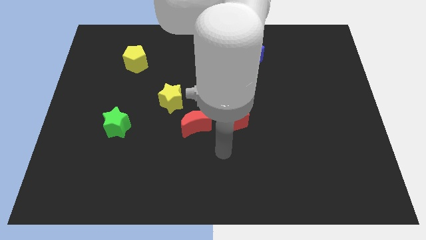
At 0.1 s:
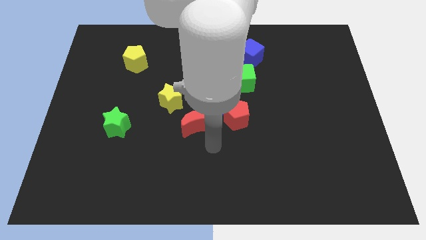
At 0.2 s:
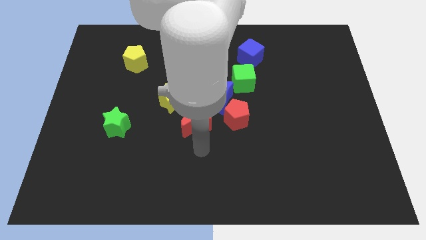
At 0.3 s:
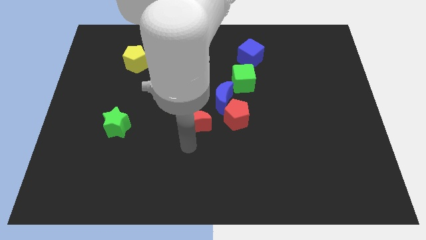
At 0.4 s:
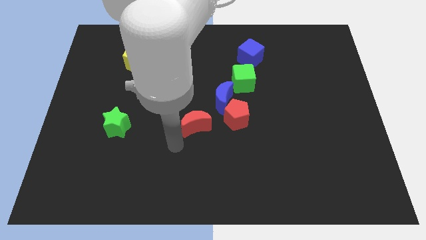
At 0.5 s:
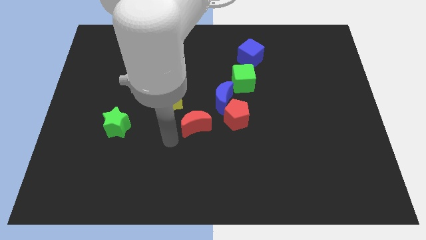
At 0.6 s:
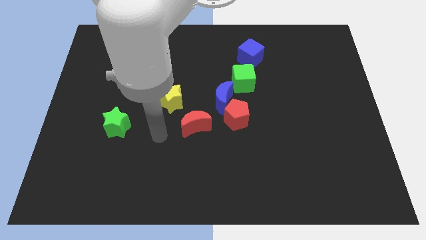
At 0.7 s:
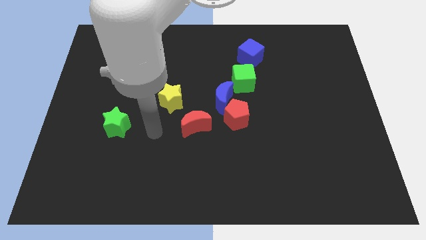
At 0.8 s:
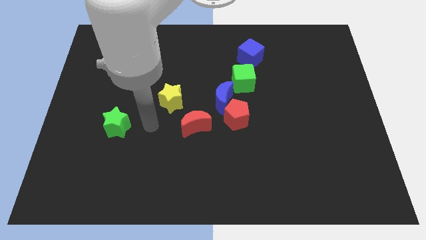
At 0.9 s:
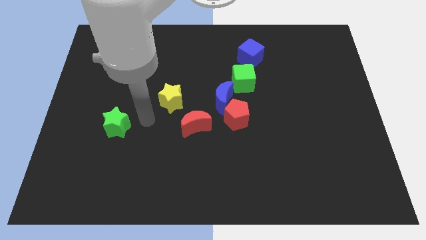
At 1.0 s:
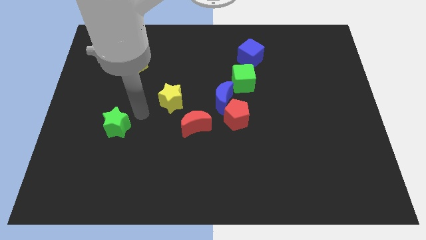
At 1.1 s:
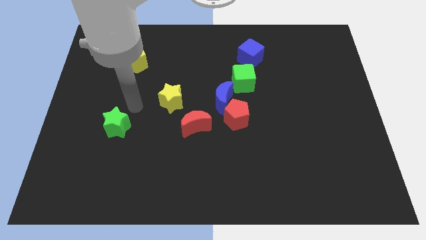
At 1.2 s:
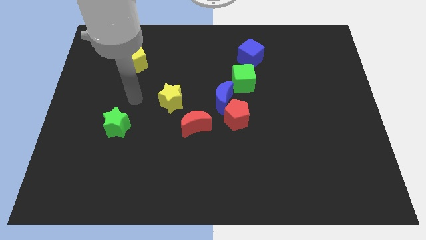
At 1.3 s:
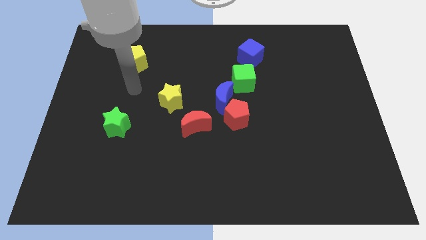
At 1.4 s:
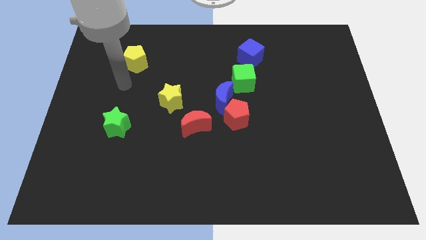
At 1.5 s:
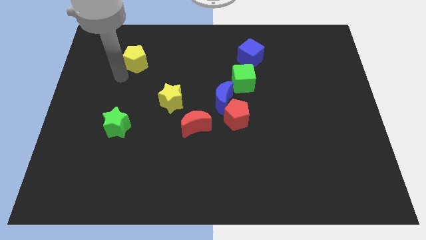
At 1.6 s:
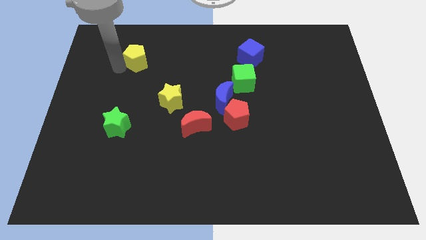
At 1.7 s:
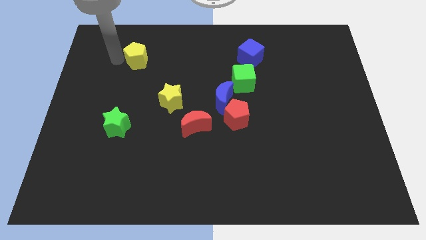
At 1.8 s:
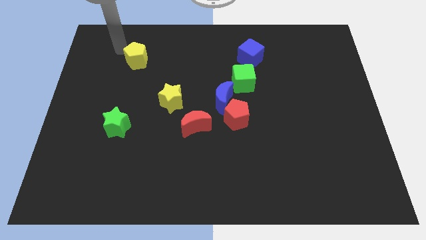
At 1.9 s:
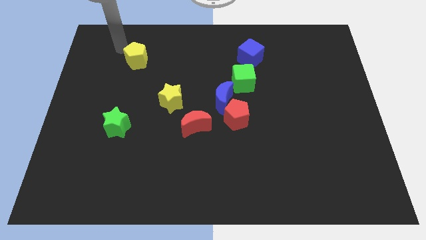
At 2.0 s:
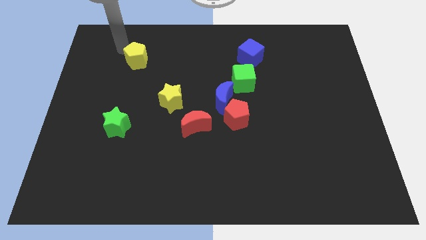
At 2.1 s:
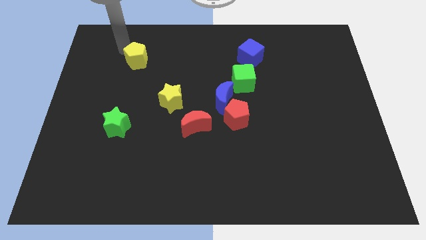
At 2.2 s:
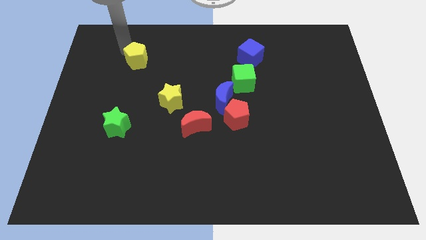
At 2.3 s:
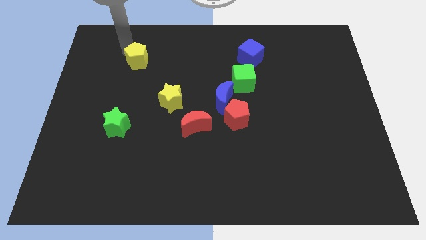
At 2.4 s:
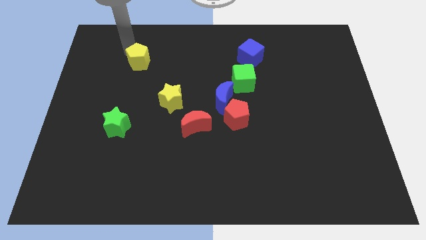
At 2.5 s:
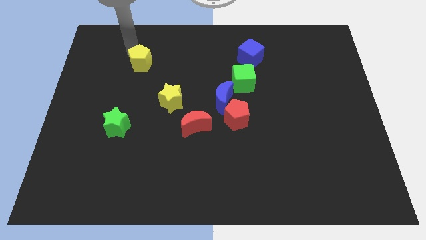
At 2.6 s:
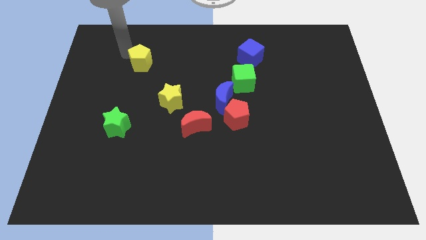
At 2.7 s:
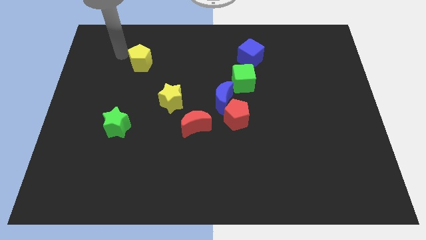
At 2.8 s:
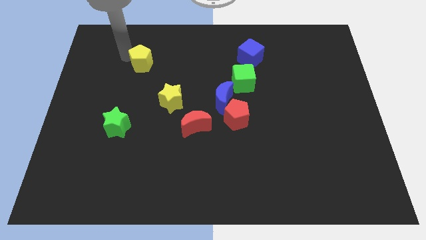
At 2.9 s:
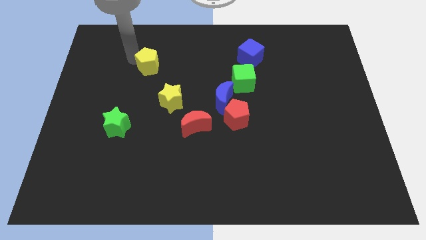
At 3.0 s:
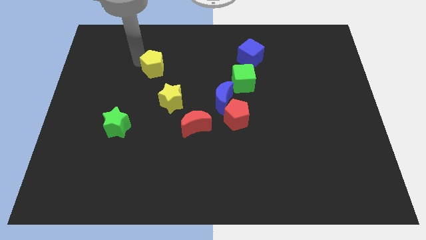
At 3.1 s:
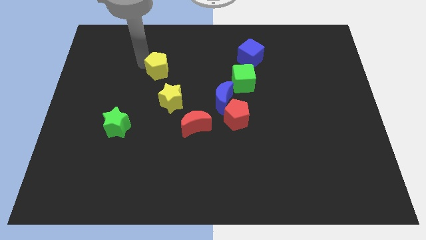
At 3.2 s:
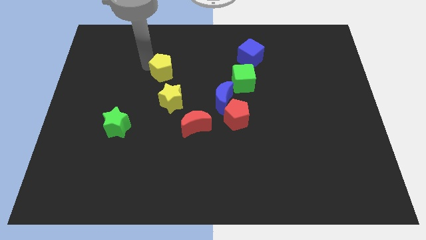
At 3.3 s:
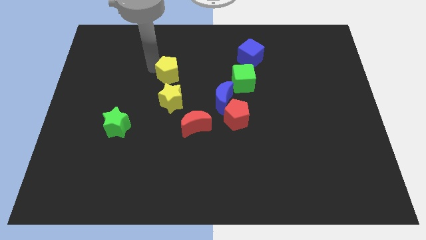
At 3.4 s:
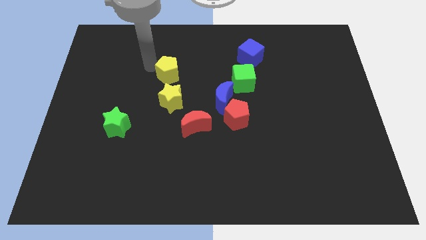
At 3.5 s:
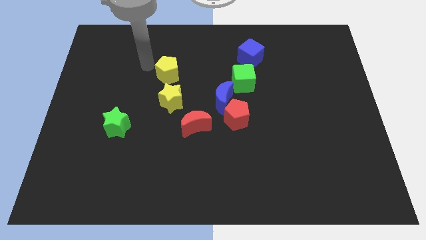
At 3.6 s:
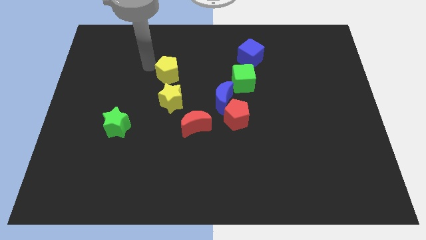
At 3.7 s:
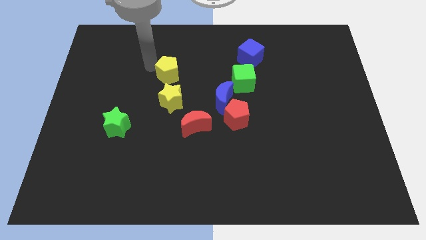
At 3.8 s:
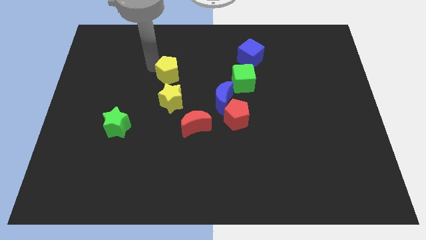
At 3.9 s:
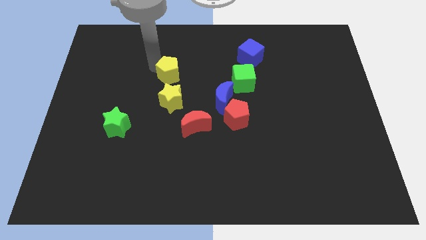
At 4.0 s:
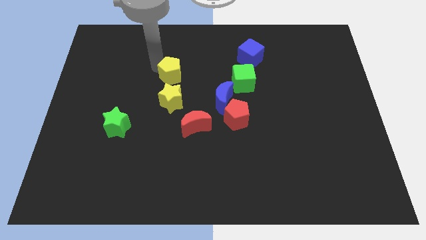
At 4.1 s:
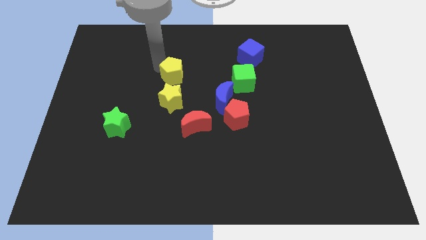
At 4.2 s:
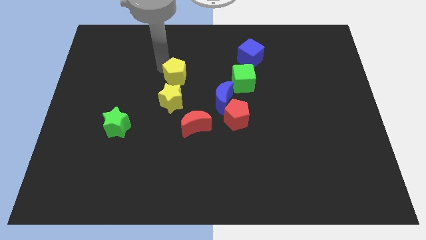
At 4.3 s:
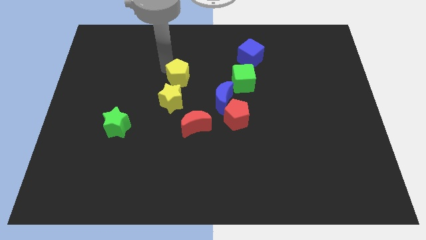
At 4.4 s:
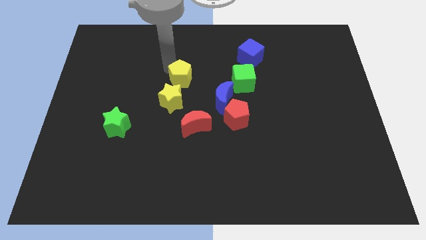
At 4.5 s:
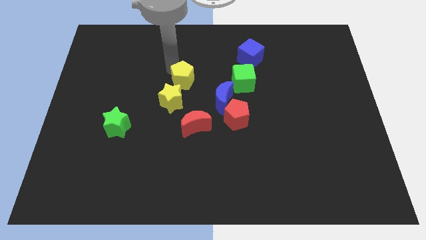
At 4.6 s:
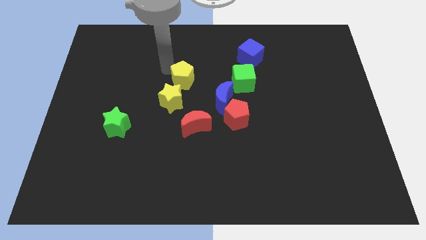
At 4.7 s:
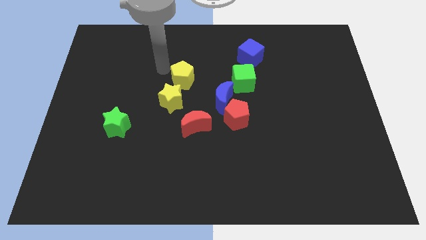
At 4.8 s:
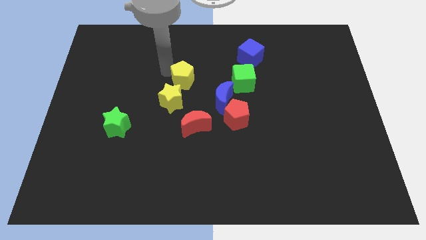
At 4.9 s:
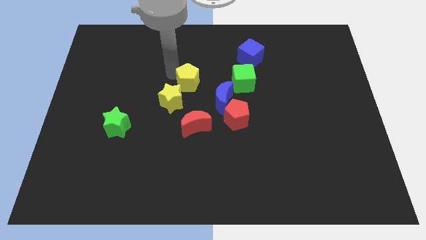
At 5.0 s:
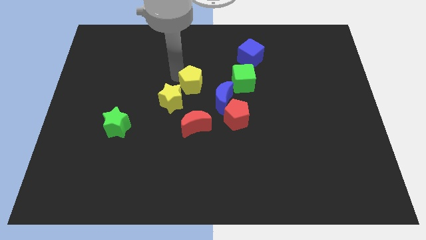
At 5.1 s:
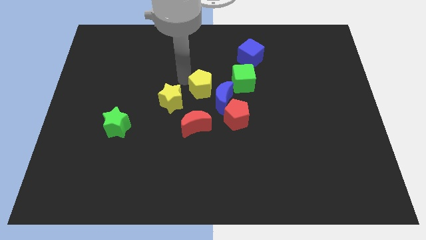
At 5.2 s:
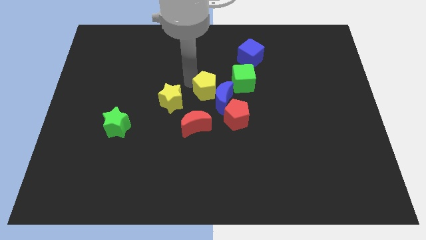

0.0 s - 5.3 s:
put the yellow pentagon towards the blue moon

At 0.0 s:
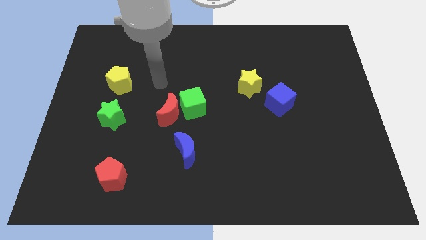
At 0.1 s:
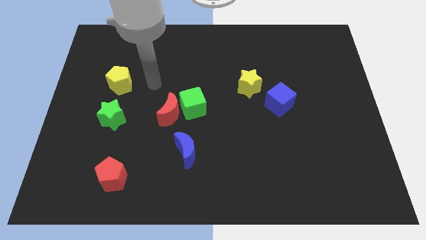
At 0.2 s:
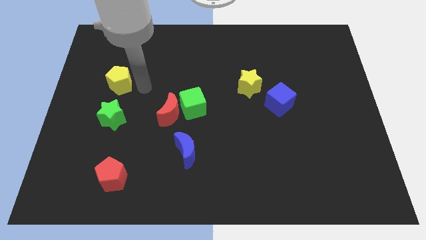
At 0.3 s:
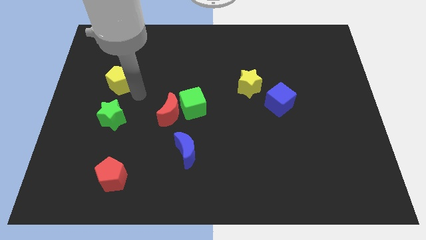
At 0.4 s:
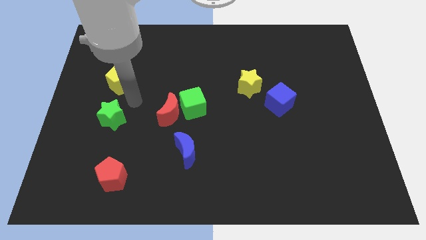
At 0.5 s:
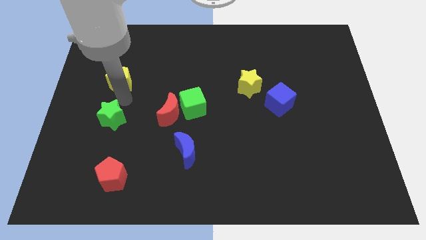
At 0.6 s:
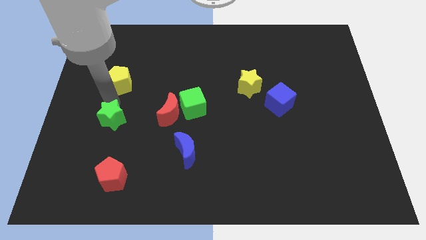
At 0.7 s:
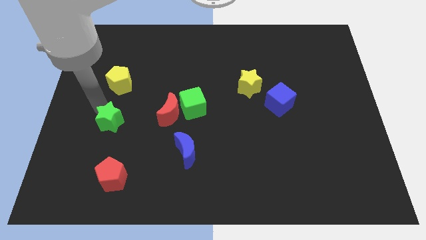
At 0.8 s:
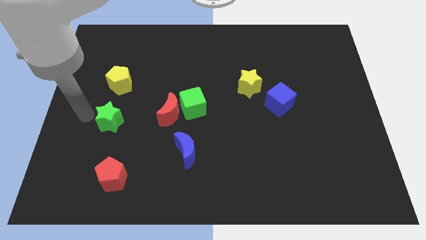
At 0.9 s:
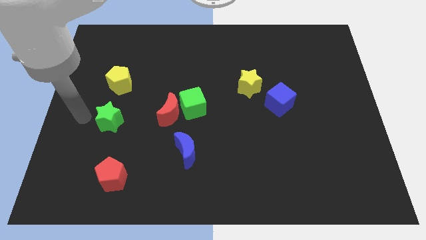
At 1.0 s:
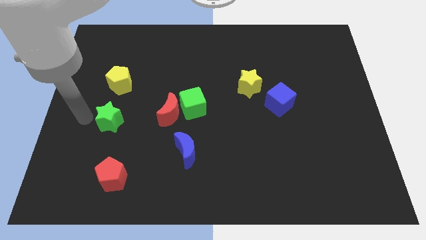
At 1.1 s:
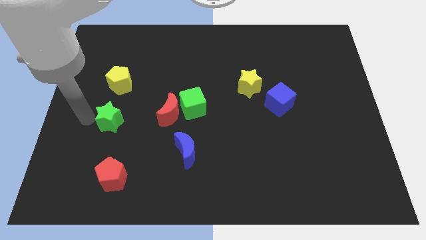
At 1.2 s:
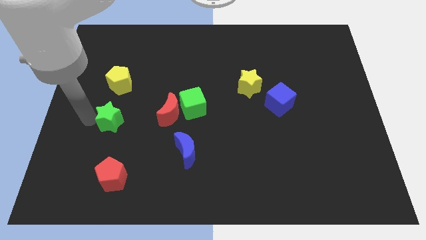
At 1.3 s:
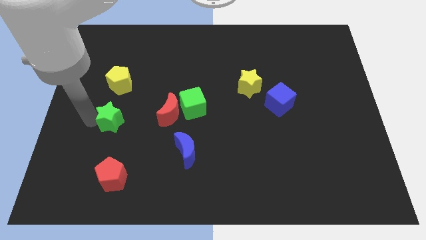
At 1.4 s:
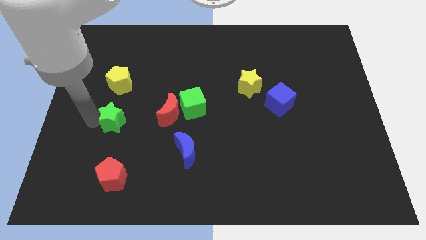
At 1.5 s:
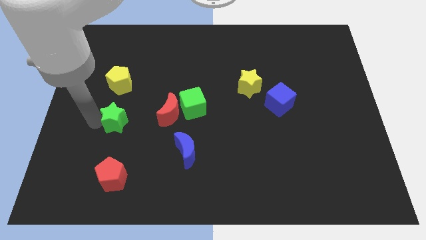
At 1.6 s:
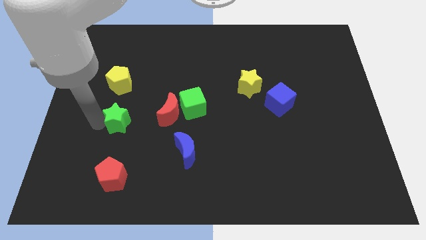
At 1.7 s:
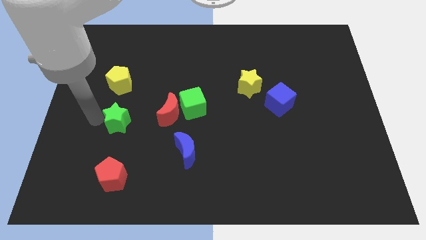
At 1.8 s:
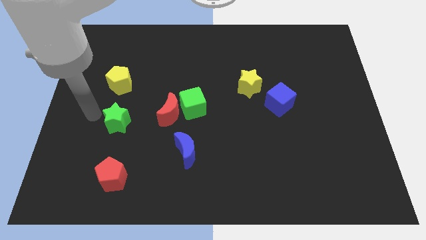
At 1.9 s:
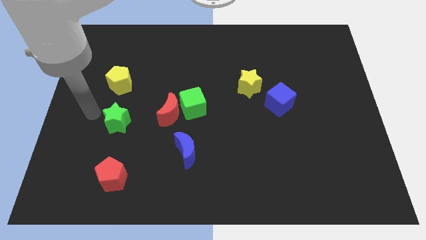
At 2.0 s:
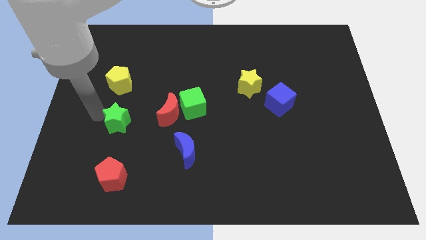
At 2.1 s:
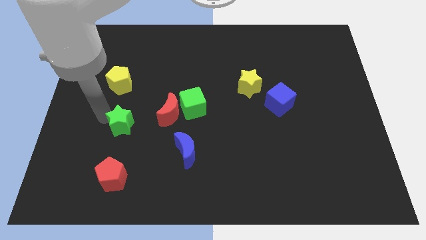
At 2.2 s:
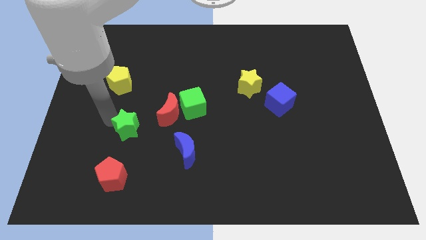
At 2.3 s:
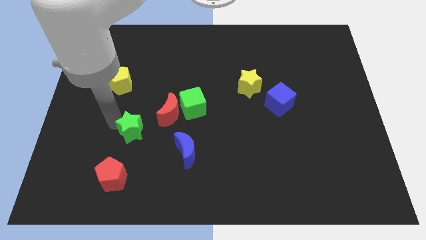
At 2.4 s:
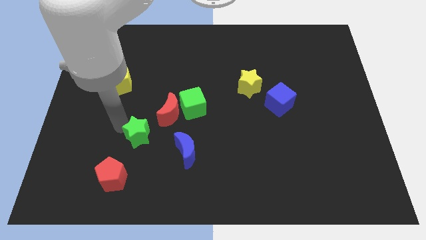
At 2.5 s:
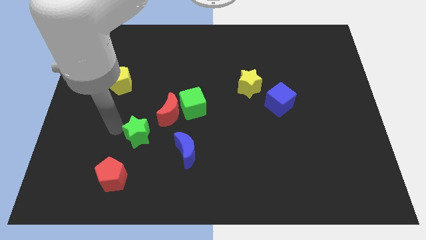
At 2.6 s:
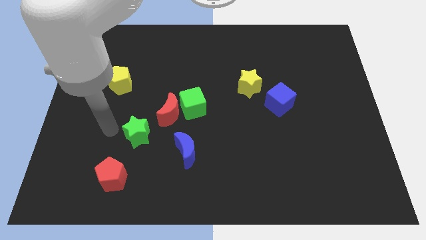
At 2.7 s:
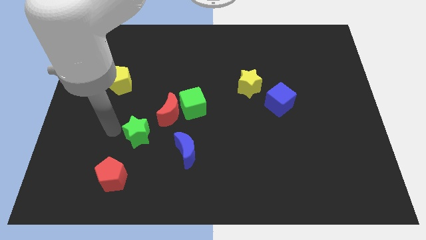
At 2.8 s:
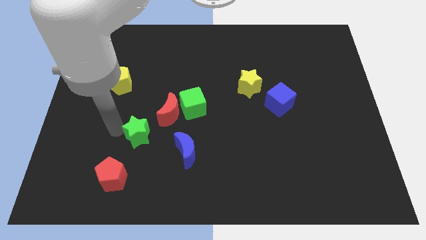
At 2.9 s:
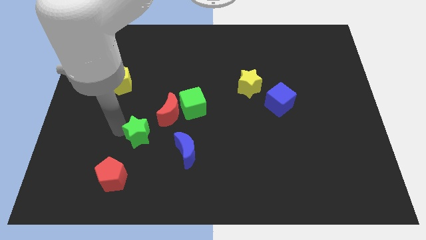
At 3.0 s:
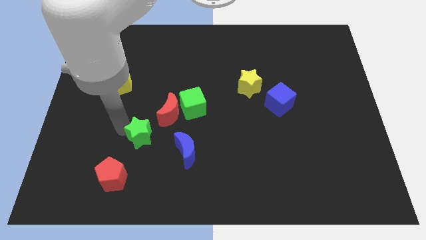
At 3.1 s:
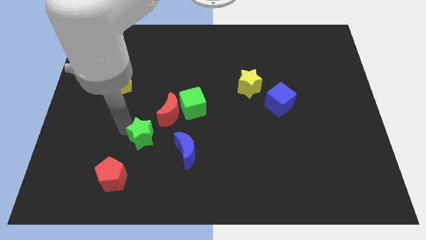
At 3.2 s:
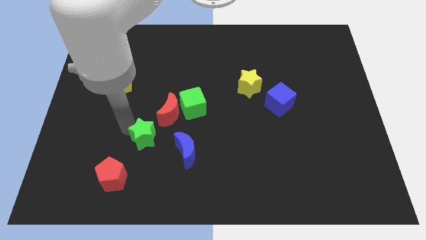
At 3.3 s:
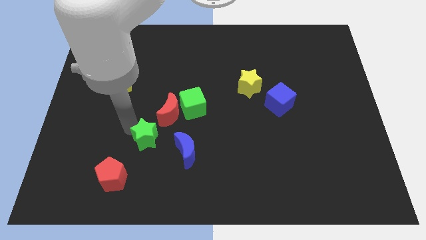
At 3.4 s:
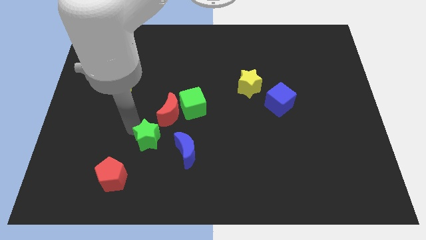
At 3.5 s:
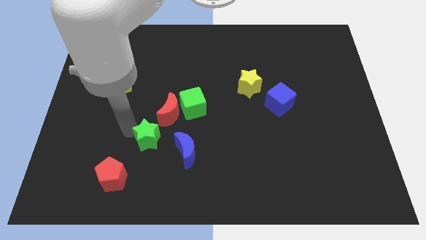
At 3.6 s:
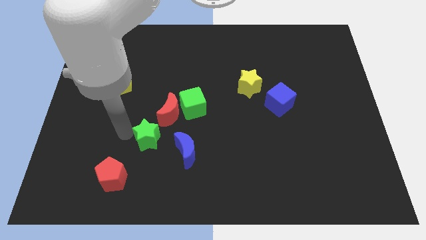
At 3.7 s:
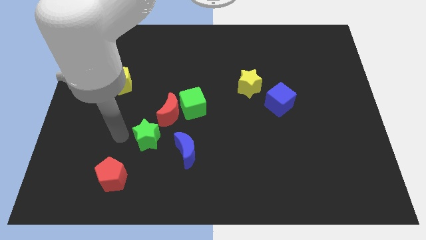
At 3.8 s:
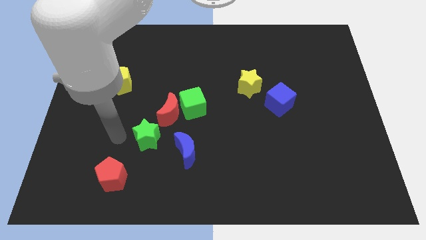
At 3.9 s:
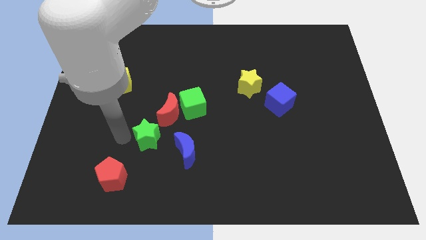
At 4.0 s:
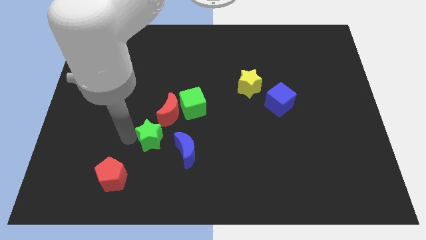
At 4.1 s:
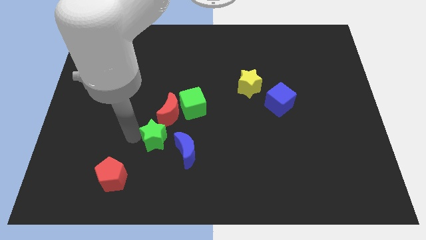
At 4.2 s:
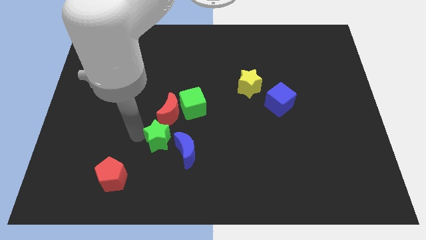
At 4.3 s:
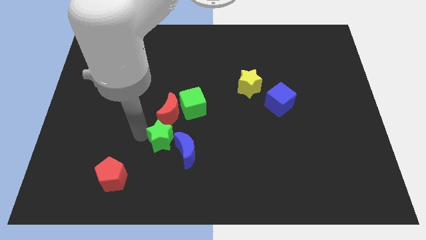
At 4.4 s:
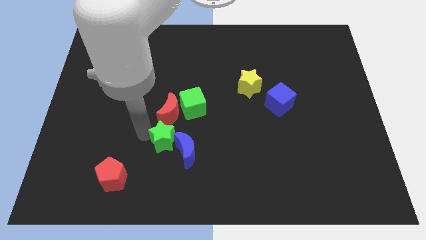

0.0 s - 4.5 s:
move the green star next to the blue moon
